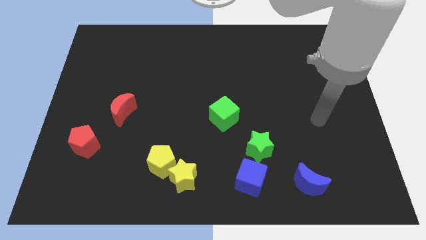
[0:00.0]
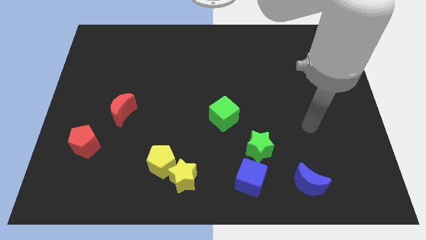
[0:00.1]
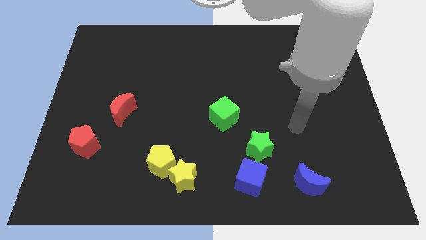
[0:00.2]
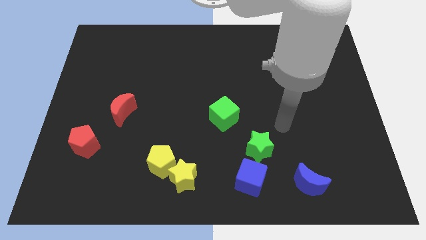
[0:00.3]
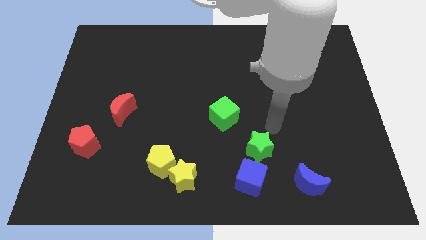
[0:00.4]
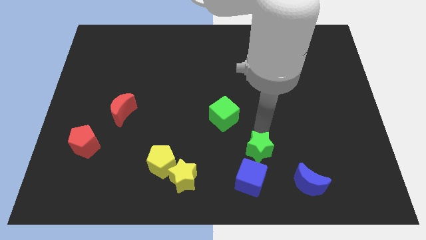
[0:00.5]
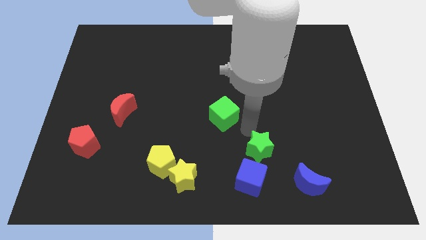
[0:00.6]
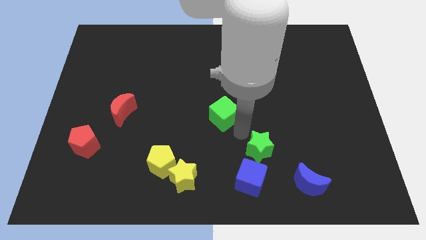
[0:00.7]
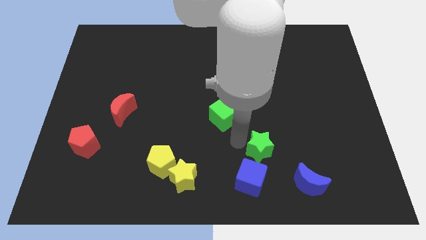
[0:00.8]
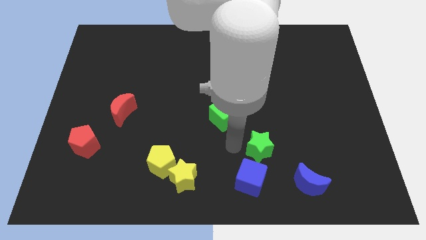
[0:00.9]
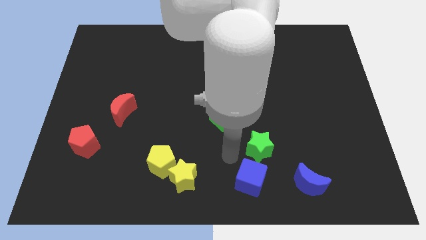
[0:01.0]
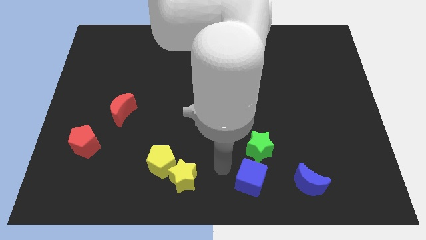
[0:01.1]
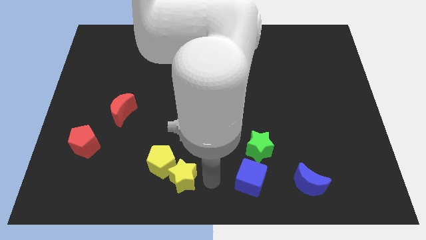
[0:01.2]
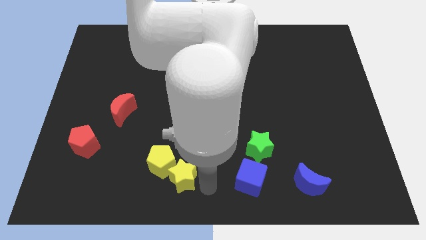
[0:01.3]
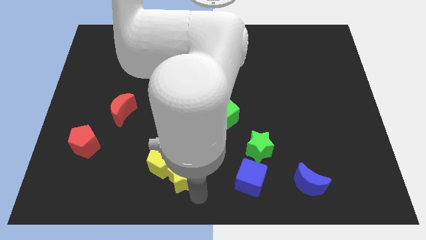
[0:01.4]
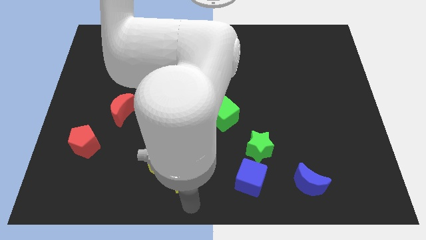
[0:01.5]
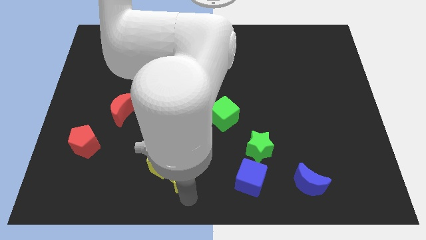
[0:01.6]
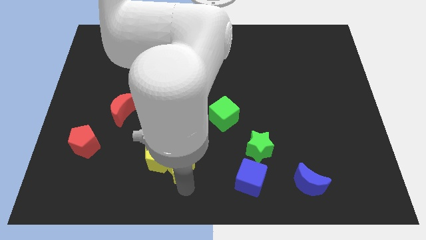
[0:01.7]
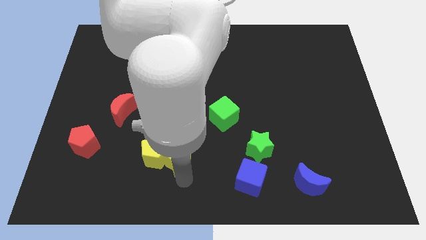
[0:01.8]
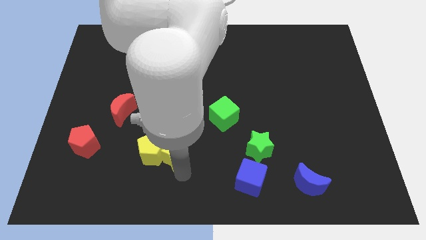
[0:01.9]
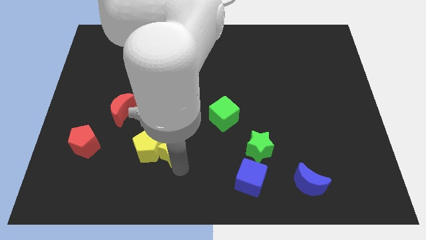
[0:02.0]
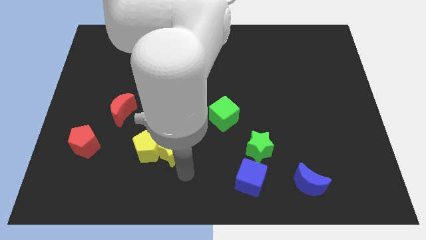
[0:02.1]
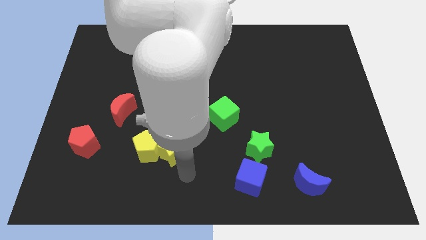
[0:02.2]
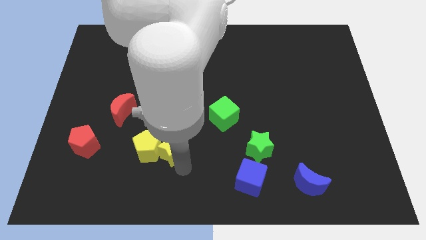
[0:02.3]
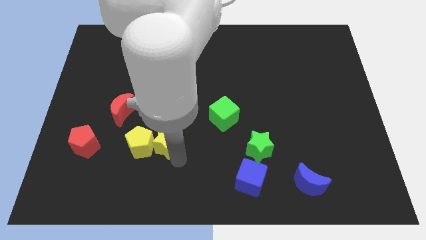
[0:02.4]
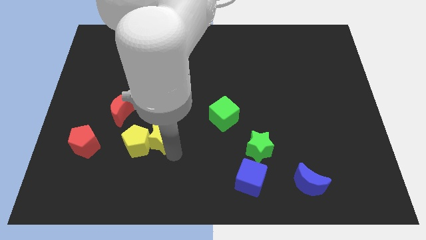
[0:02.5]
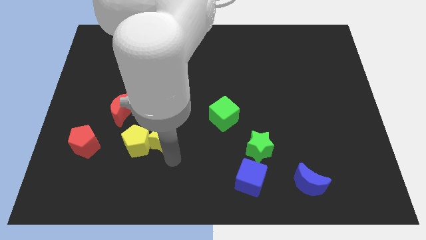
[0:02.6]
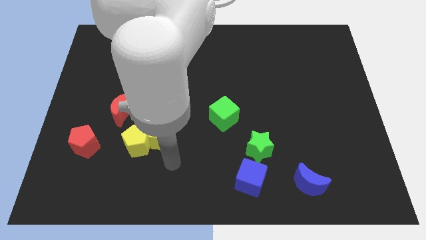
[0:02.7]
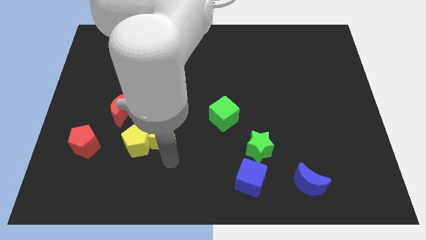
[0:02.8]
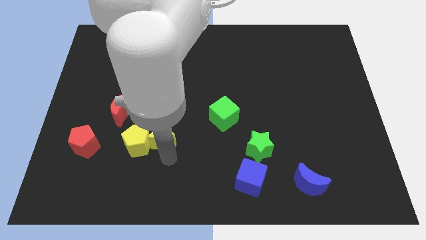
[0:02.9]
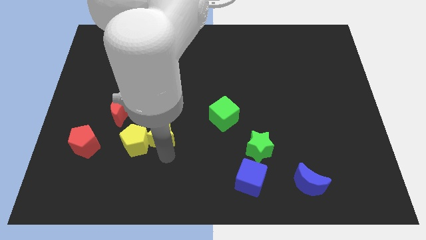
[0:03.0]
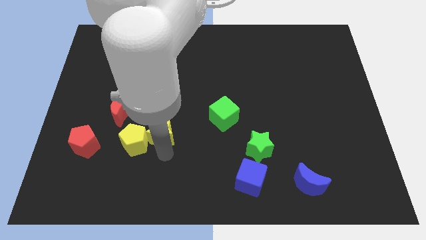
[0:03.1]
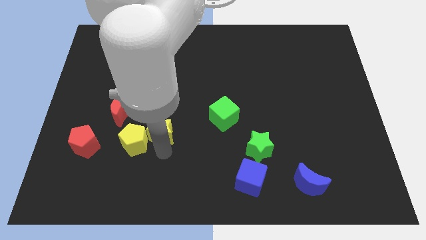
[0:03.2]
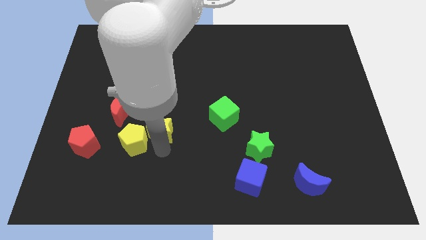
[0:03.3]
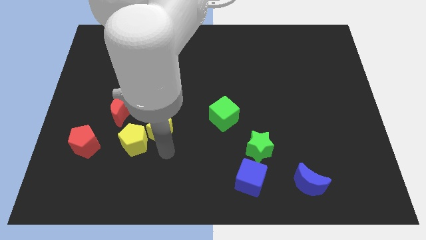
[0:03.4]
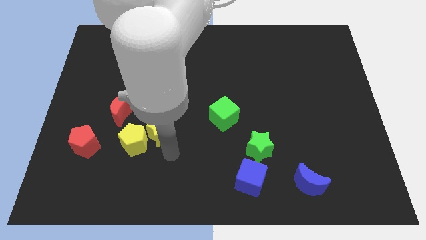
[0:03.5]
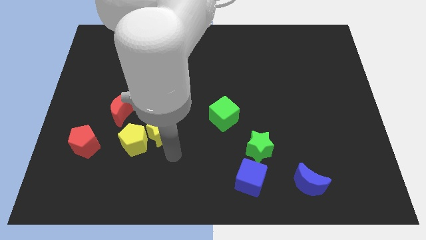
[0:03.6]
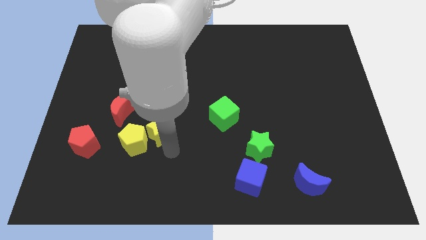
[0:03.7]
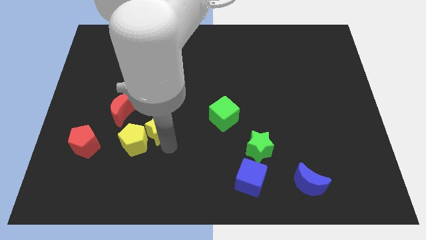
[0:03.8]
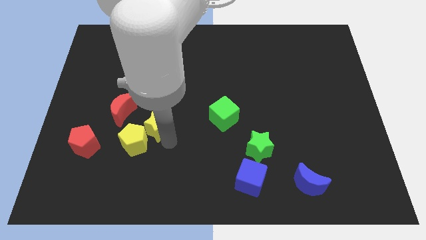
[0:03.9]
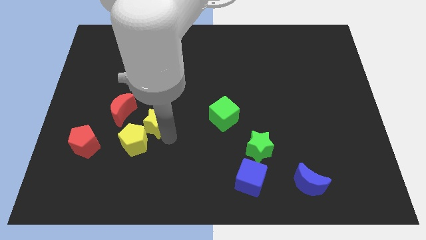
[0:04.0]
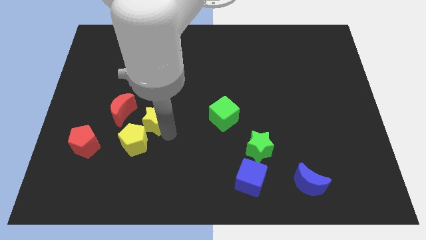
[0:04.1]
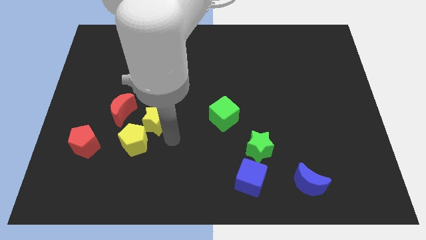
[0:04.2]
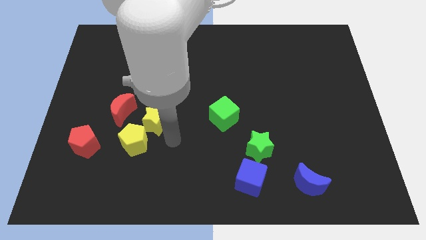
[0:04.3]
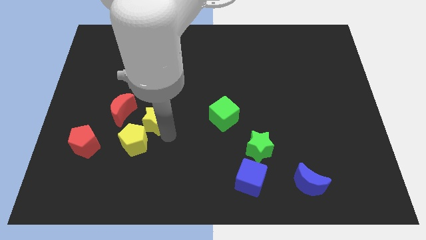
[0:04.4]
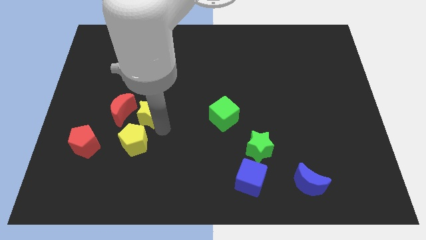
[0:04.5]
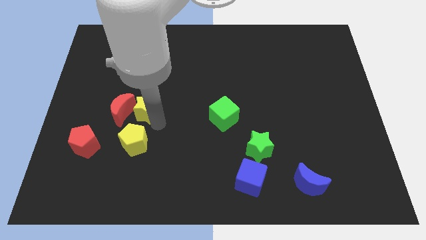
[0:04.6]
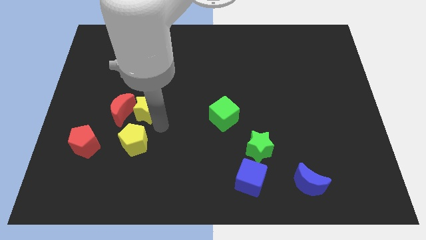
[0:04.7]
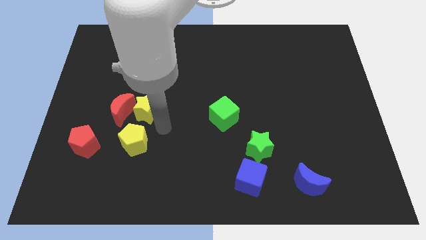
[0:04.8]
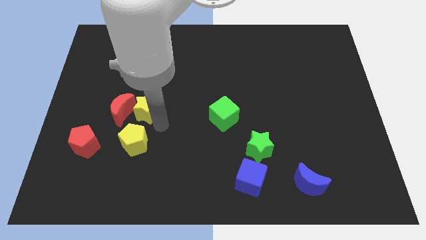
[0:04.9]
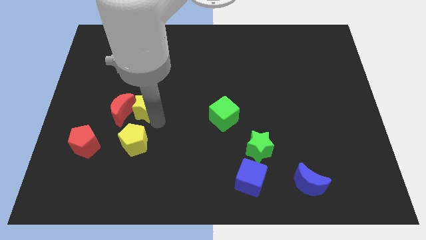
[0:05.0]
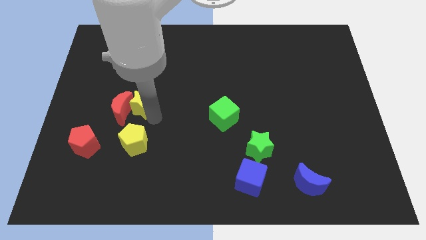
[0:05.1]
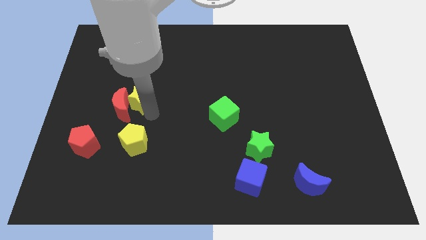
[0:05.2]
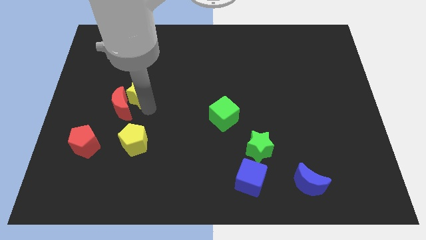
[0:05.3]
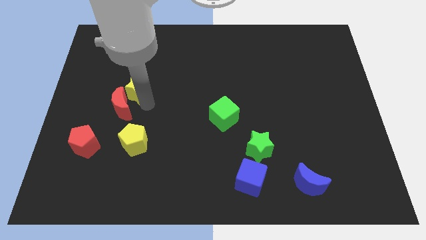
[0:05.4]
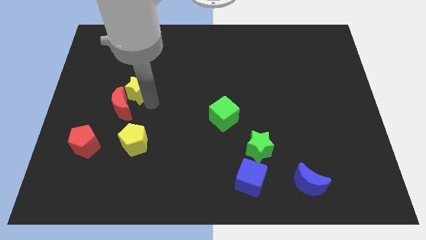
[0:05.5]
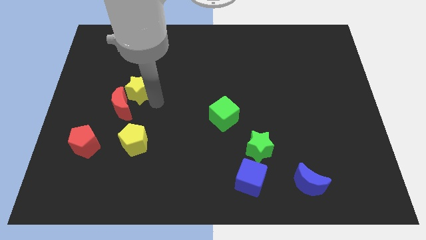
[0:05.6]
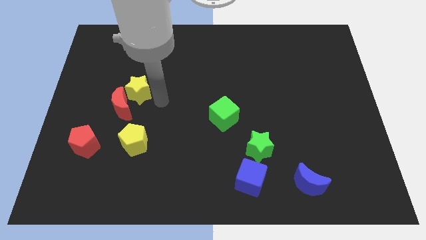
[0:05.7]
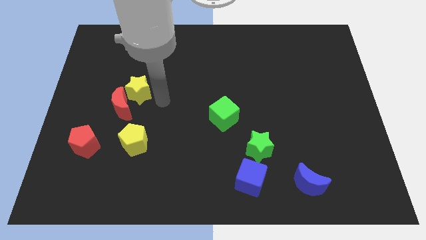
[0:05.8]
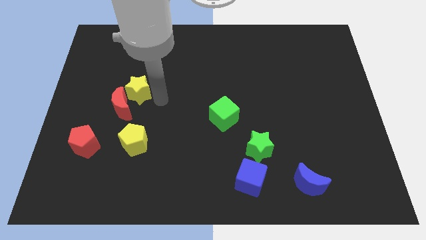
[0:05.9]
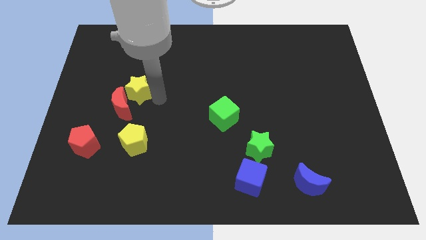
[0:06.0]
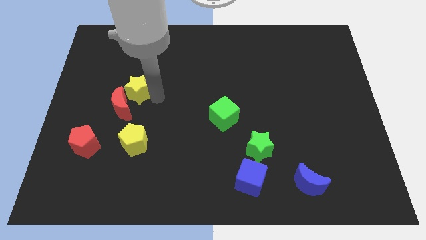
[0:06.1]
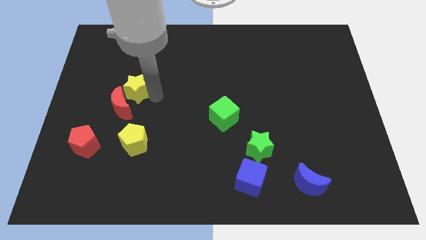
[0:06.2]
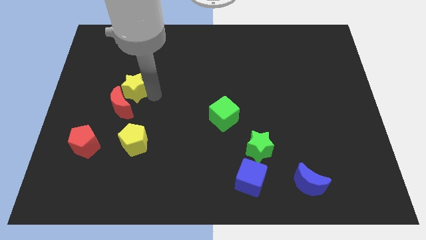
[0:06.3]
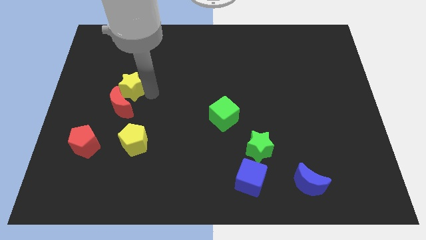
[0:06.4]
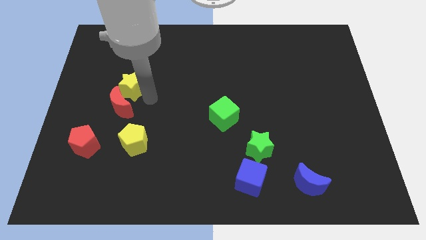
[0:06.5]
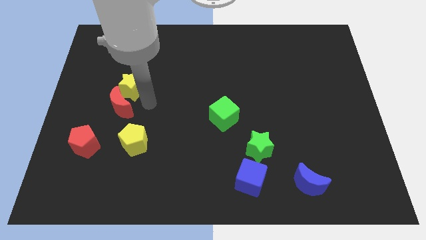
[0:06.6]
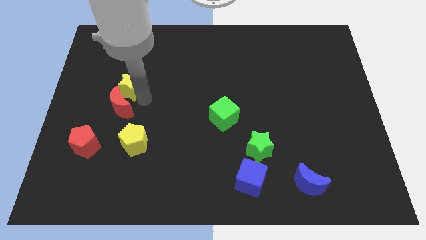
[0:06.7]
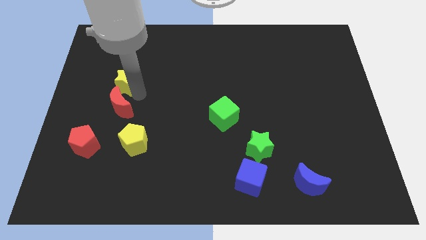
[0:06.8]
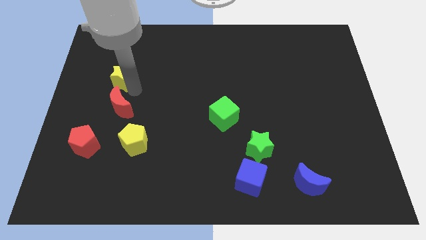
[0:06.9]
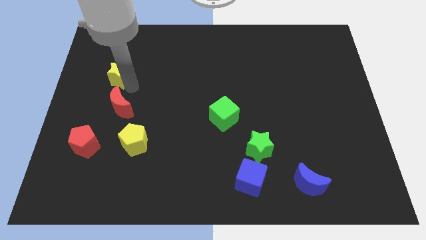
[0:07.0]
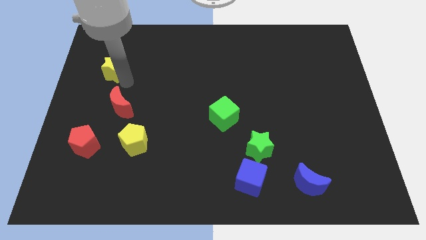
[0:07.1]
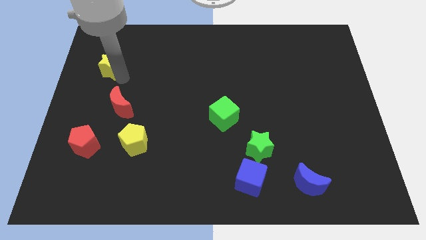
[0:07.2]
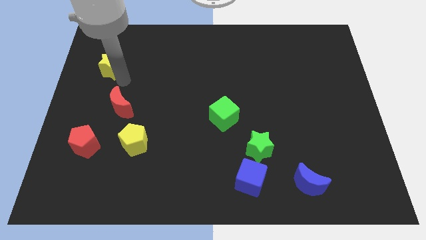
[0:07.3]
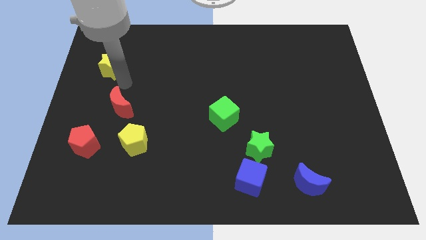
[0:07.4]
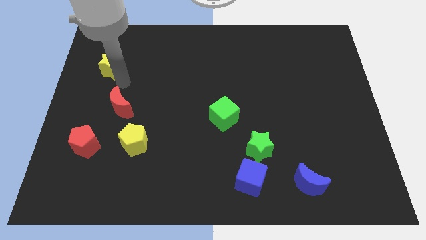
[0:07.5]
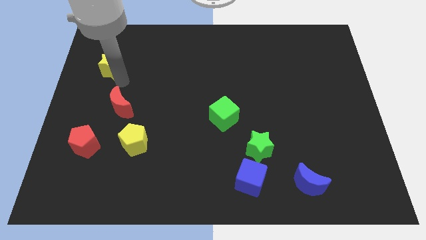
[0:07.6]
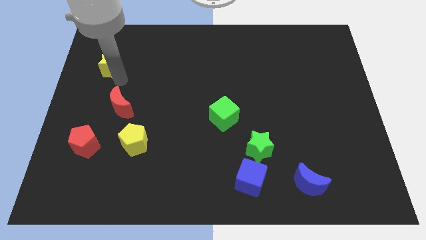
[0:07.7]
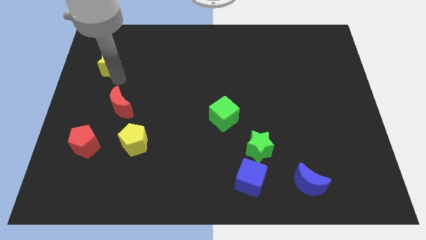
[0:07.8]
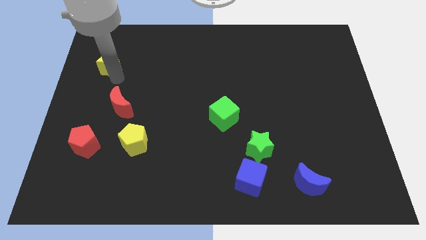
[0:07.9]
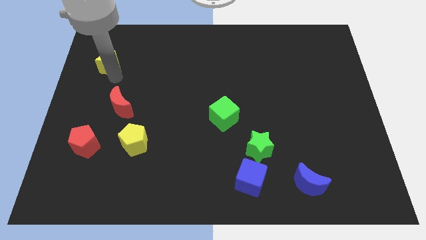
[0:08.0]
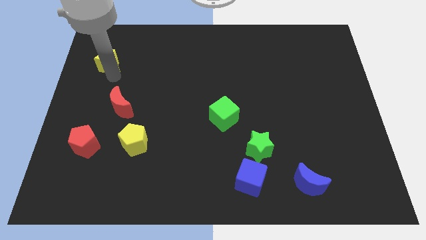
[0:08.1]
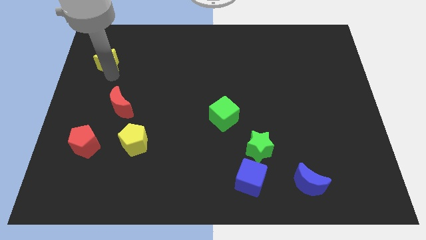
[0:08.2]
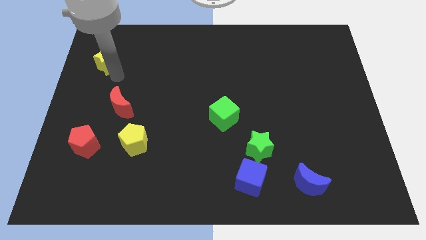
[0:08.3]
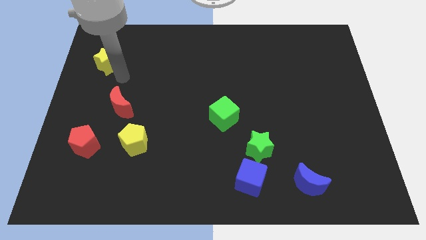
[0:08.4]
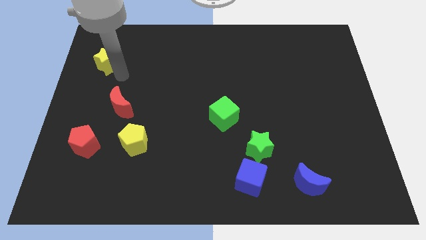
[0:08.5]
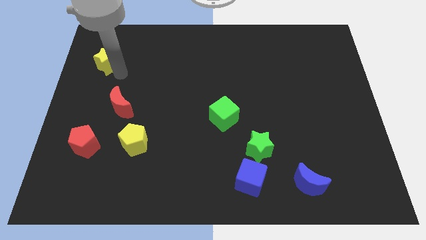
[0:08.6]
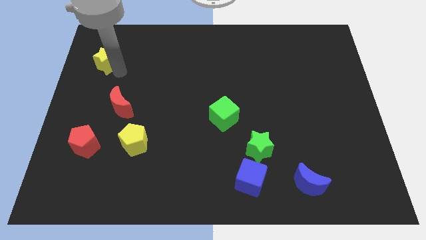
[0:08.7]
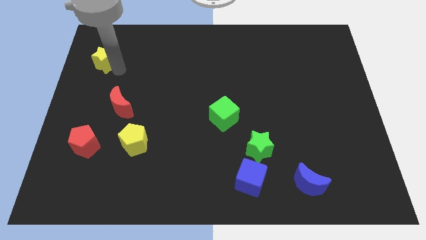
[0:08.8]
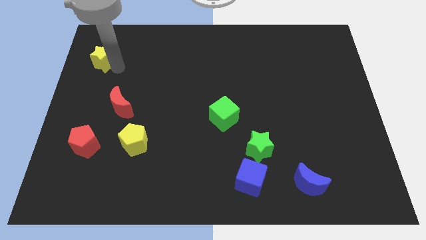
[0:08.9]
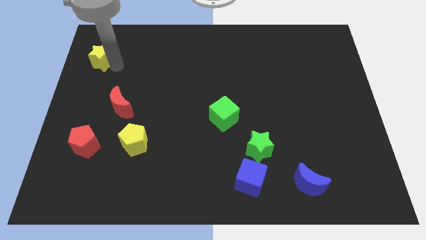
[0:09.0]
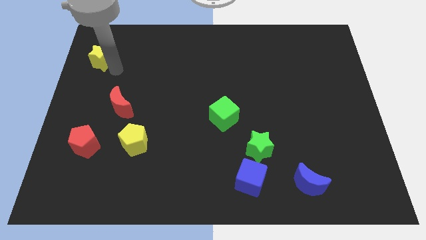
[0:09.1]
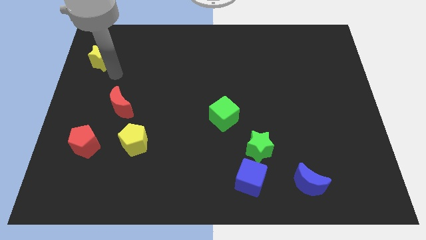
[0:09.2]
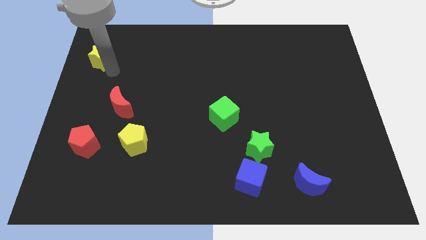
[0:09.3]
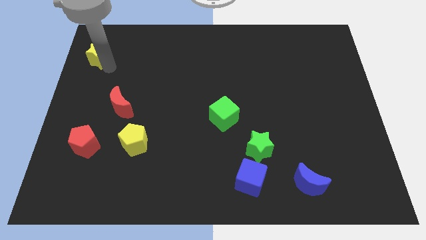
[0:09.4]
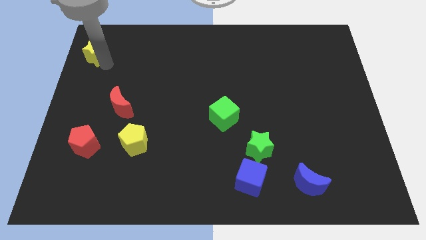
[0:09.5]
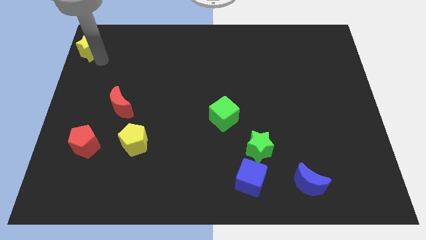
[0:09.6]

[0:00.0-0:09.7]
move the yellow star to the top left
